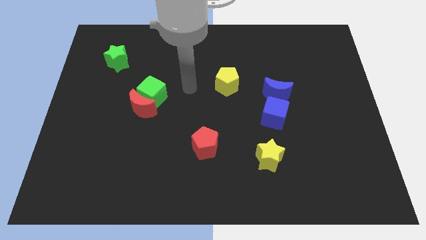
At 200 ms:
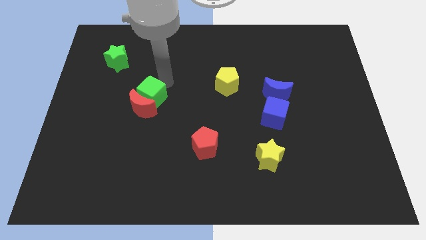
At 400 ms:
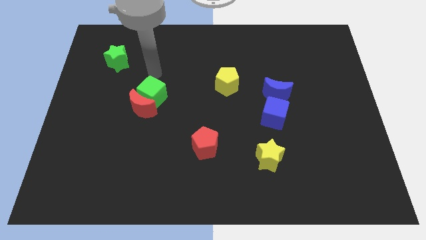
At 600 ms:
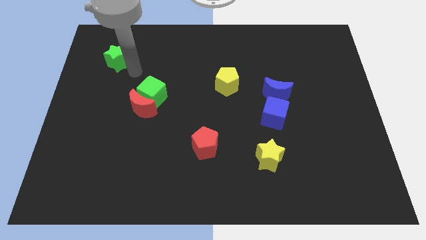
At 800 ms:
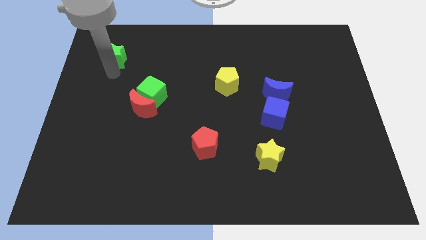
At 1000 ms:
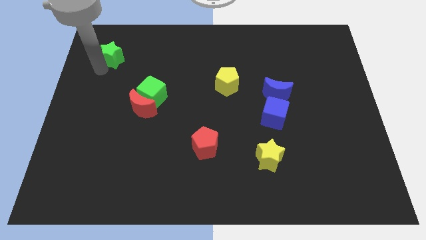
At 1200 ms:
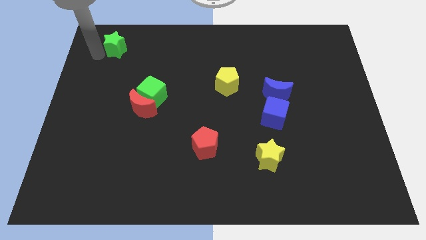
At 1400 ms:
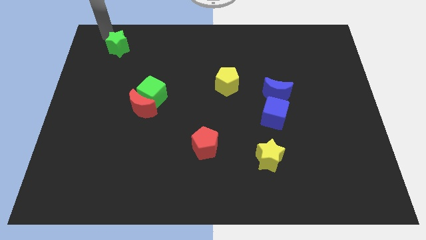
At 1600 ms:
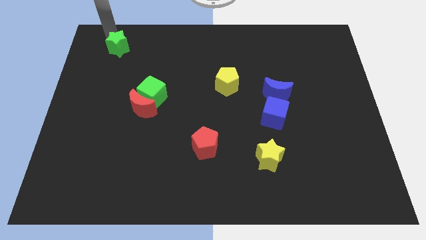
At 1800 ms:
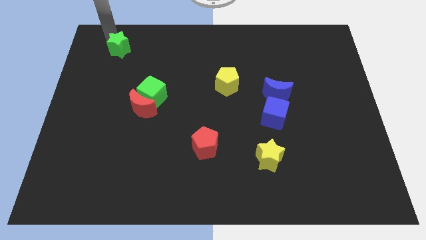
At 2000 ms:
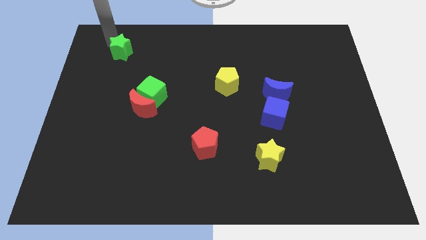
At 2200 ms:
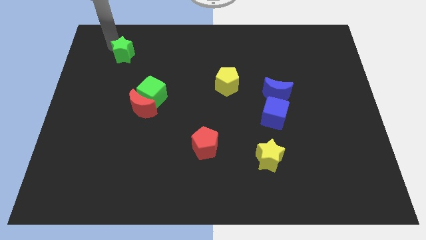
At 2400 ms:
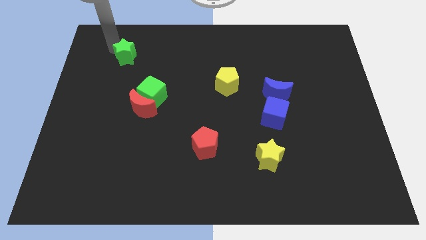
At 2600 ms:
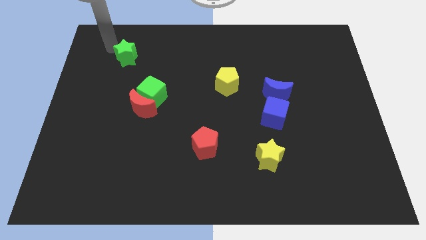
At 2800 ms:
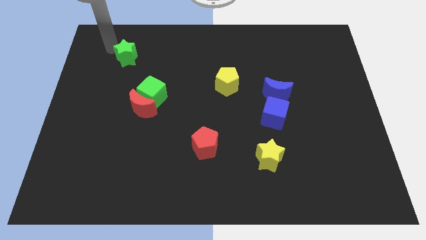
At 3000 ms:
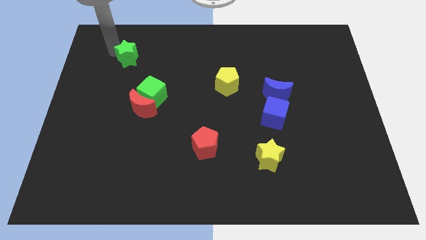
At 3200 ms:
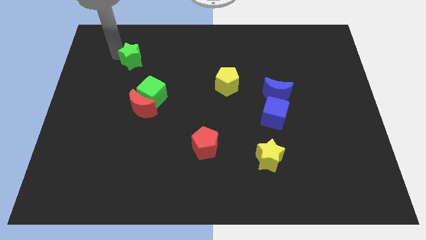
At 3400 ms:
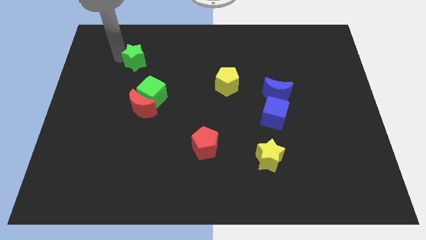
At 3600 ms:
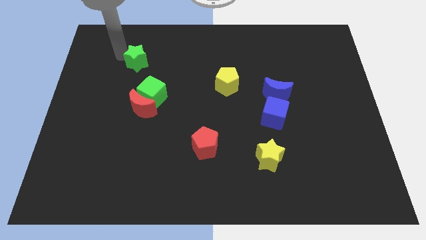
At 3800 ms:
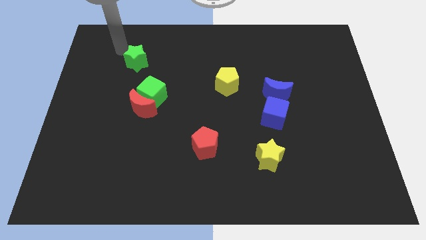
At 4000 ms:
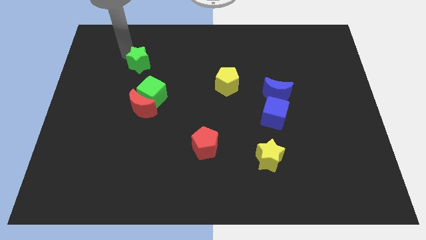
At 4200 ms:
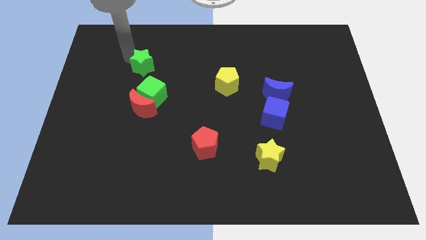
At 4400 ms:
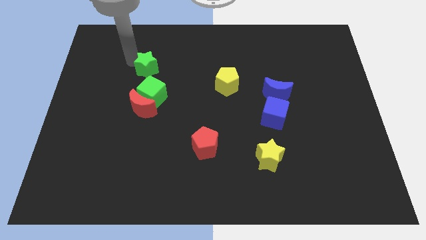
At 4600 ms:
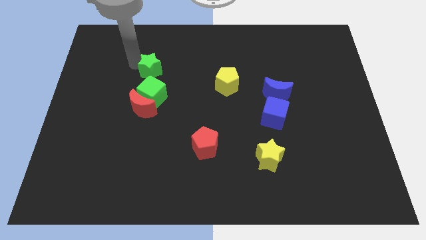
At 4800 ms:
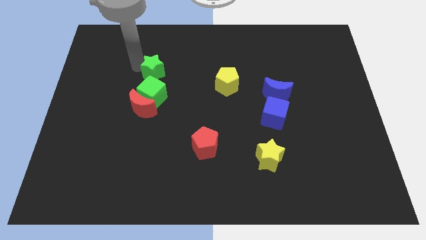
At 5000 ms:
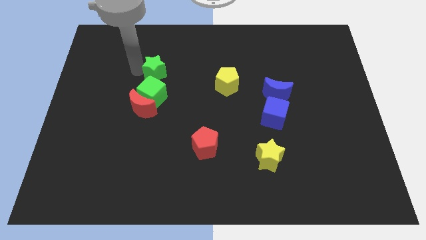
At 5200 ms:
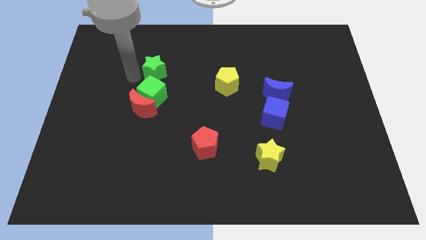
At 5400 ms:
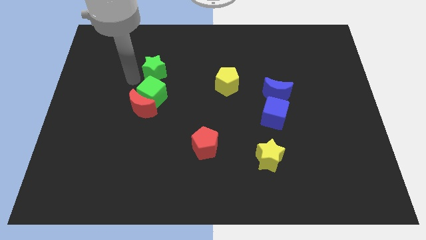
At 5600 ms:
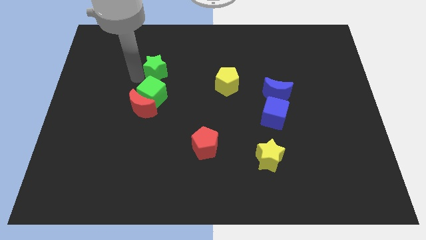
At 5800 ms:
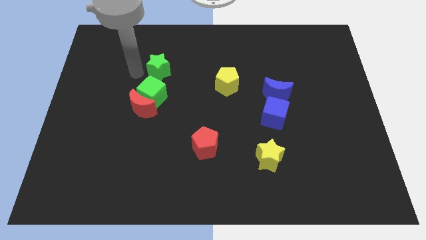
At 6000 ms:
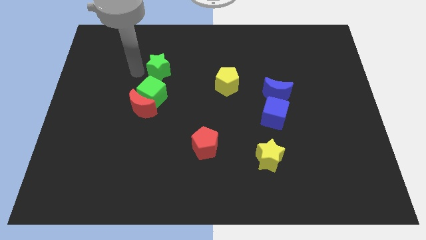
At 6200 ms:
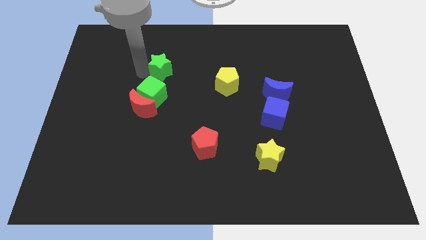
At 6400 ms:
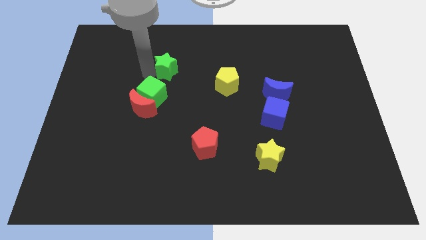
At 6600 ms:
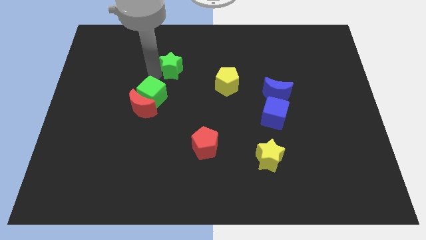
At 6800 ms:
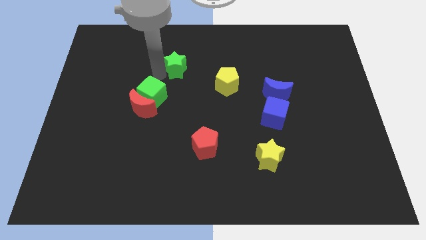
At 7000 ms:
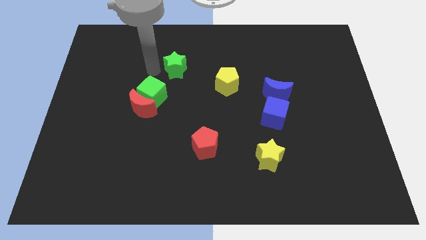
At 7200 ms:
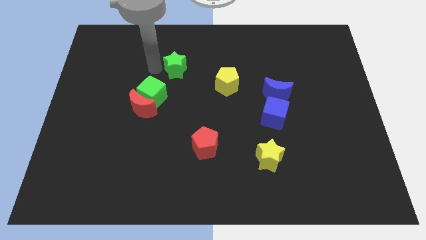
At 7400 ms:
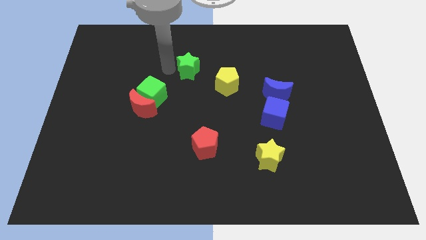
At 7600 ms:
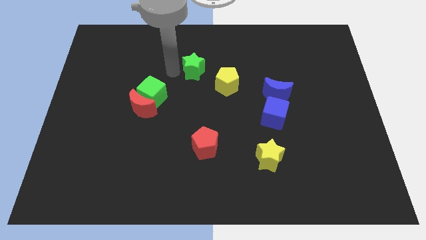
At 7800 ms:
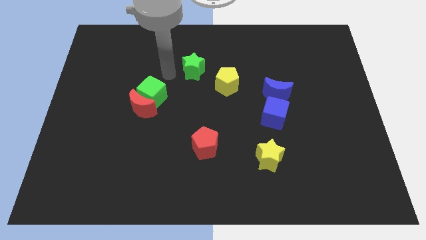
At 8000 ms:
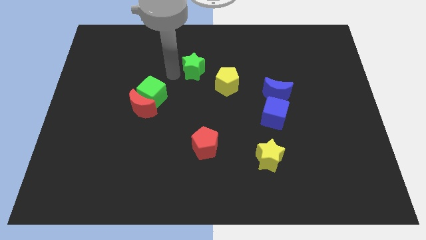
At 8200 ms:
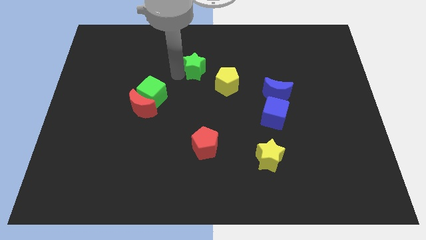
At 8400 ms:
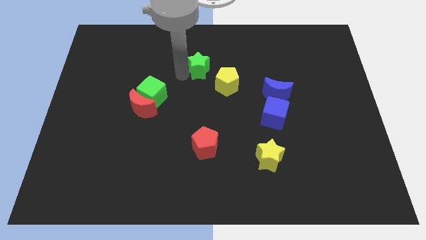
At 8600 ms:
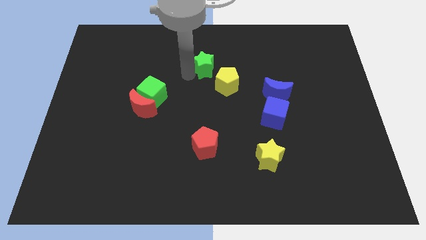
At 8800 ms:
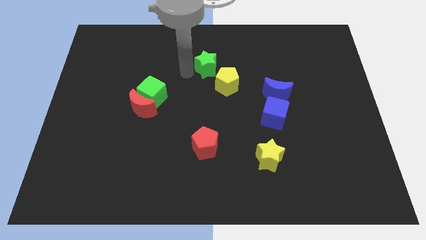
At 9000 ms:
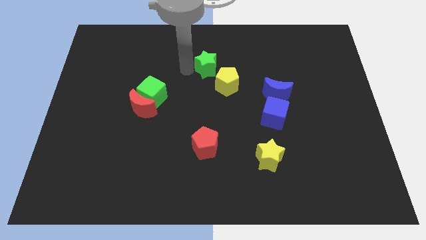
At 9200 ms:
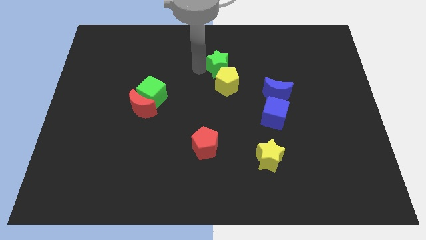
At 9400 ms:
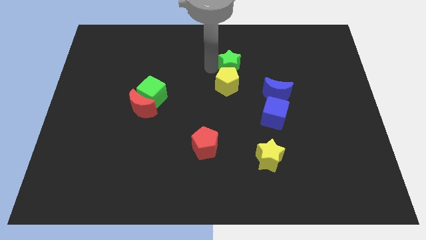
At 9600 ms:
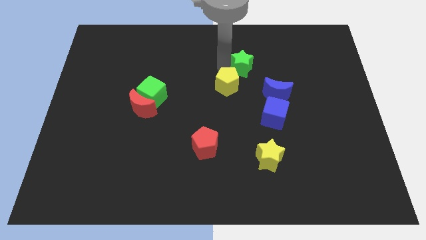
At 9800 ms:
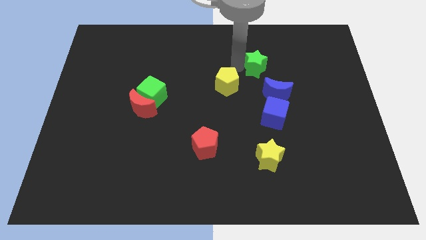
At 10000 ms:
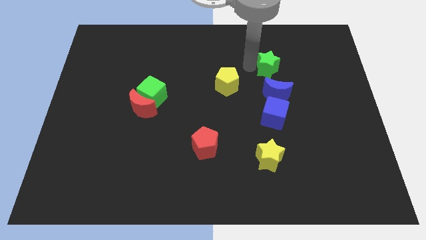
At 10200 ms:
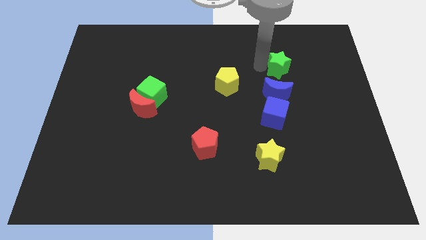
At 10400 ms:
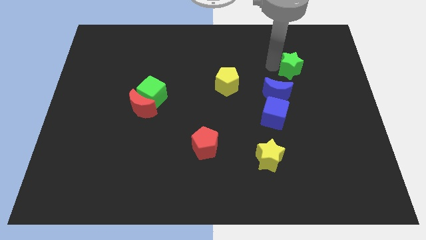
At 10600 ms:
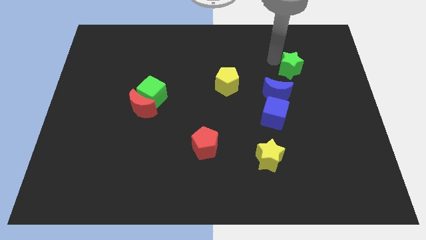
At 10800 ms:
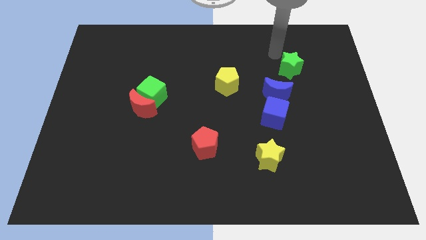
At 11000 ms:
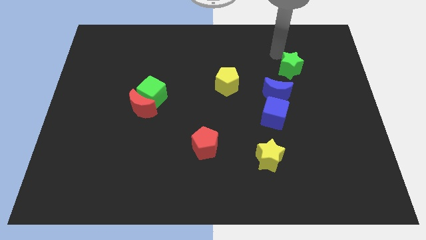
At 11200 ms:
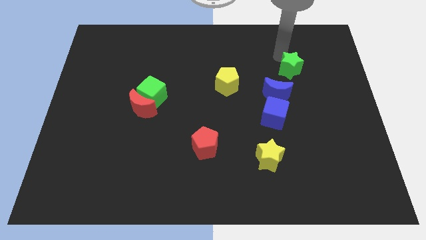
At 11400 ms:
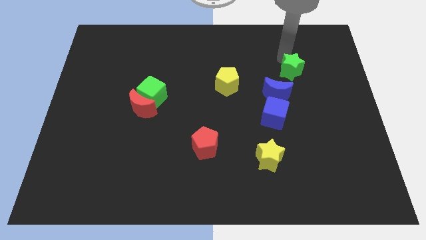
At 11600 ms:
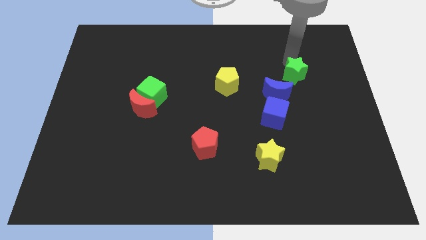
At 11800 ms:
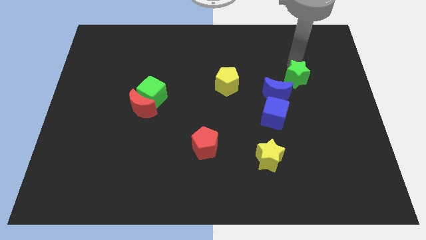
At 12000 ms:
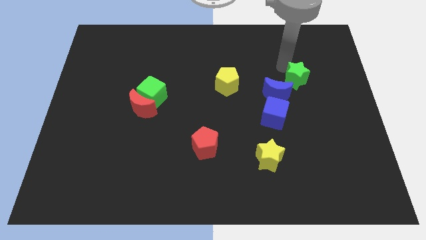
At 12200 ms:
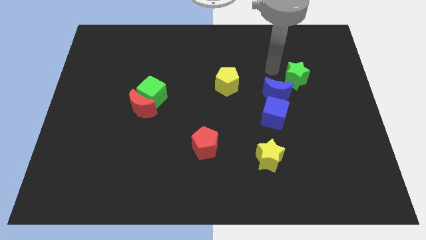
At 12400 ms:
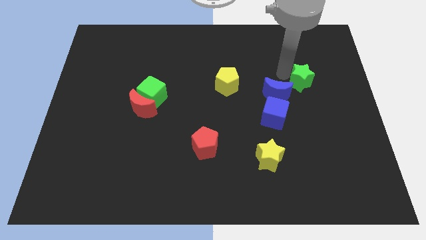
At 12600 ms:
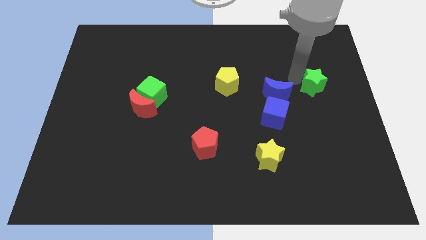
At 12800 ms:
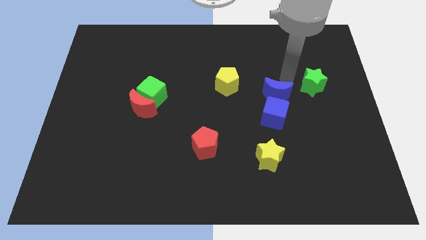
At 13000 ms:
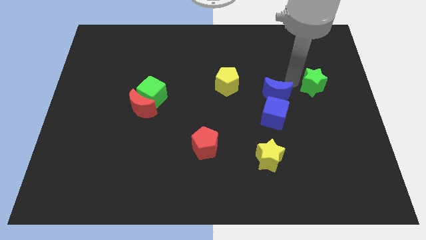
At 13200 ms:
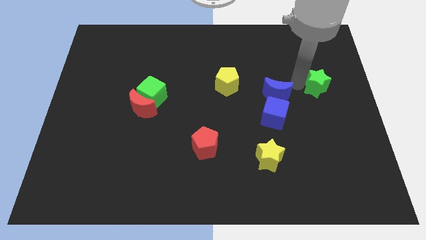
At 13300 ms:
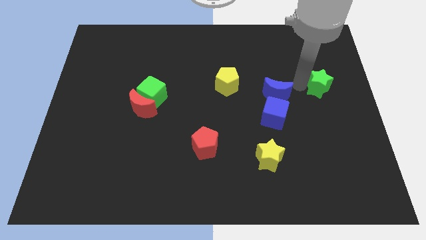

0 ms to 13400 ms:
move the green star to the right side
